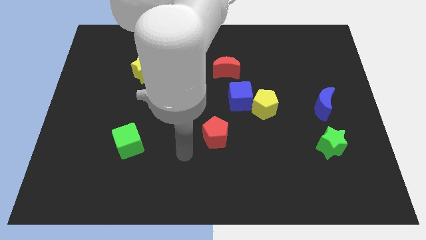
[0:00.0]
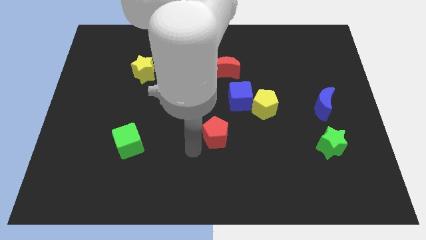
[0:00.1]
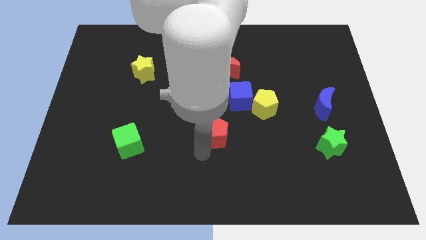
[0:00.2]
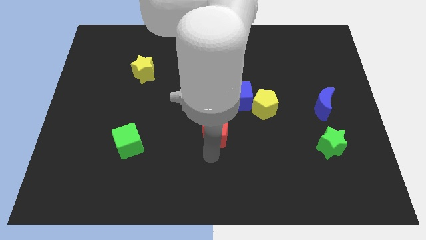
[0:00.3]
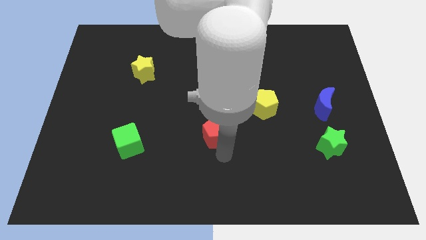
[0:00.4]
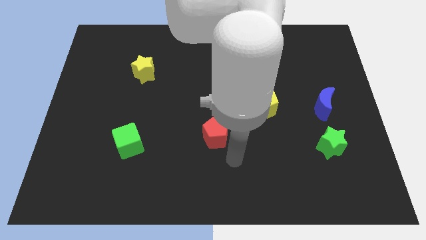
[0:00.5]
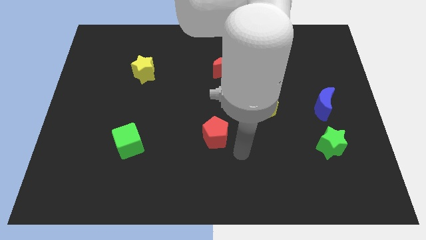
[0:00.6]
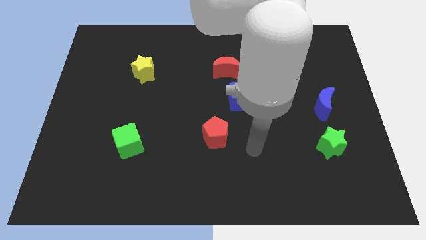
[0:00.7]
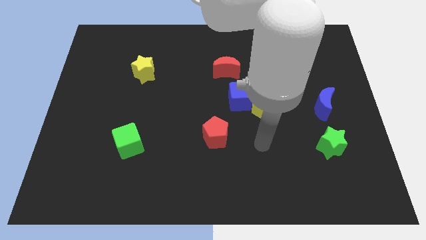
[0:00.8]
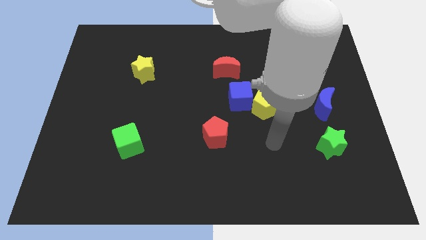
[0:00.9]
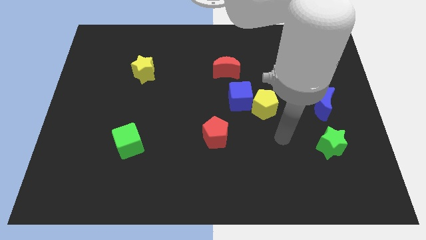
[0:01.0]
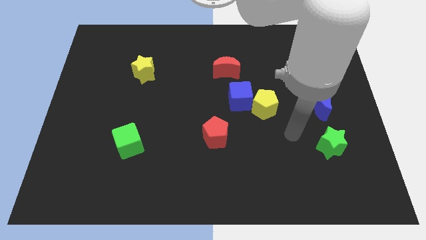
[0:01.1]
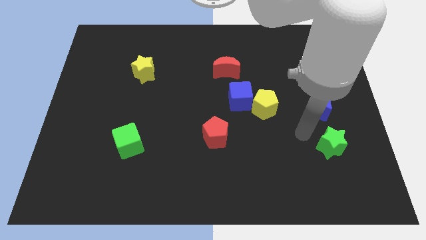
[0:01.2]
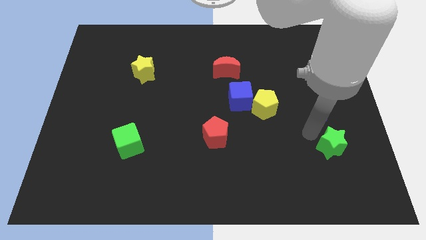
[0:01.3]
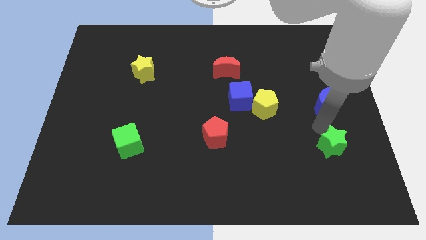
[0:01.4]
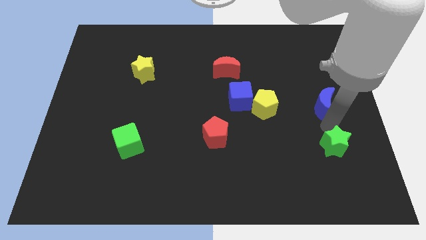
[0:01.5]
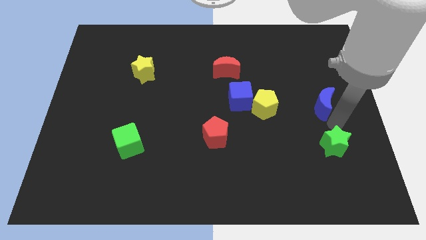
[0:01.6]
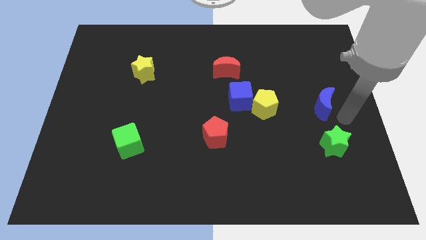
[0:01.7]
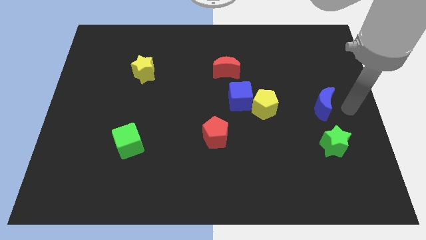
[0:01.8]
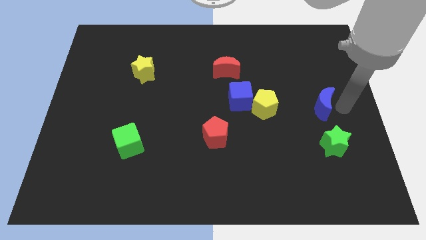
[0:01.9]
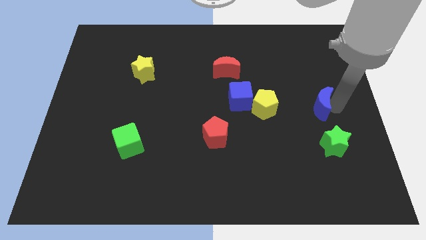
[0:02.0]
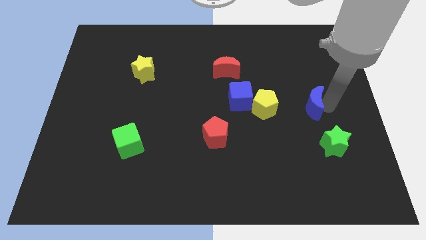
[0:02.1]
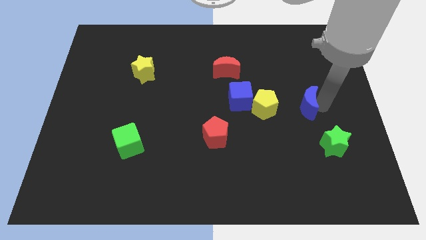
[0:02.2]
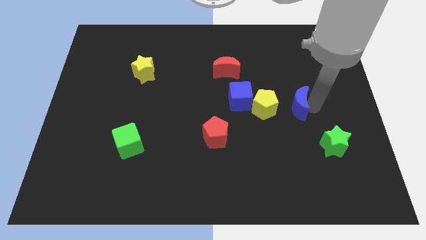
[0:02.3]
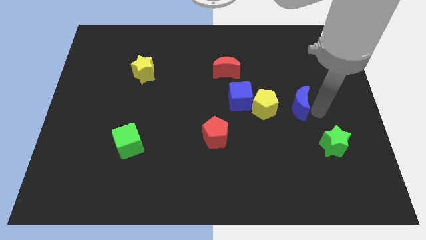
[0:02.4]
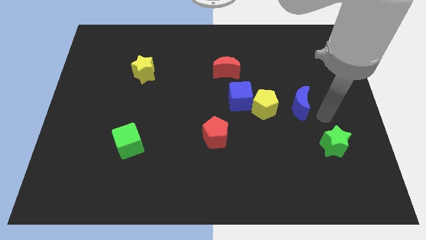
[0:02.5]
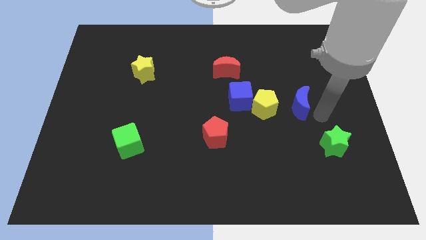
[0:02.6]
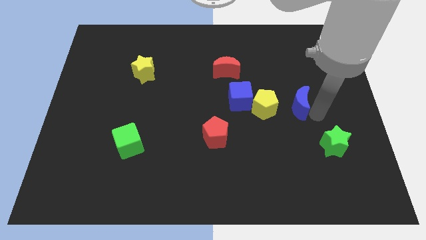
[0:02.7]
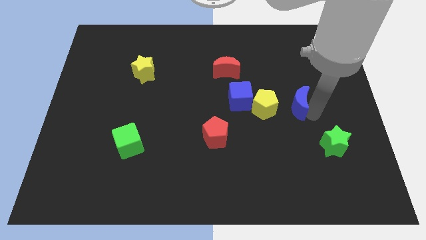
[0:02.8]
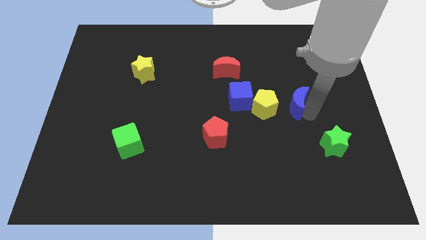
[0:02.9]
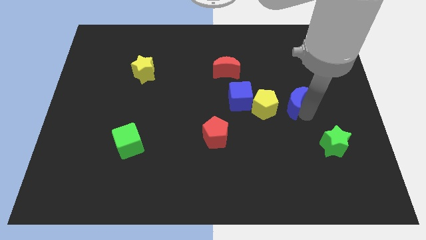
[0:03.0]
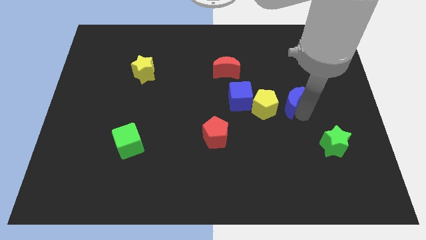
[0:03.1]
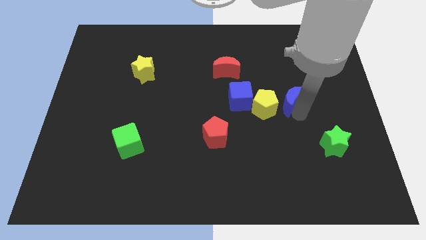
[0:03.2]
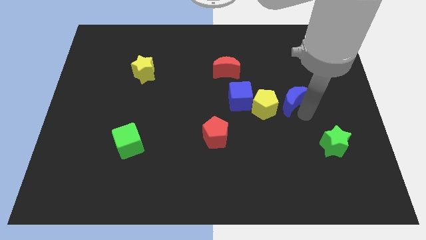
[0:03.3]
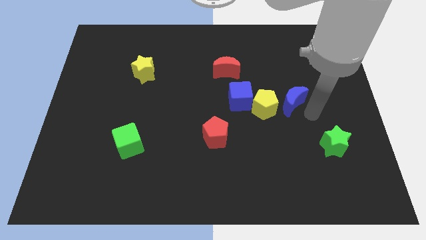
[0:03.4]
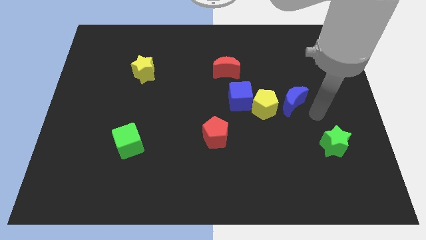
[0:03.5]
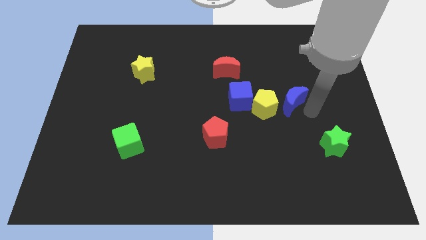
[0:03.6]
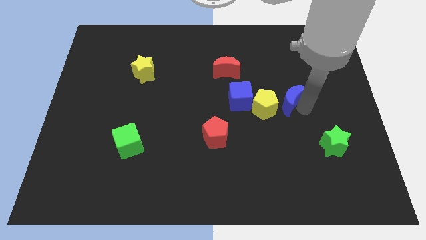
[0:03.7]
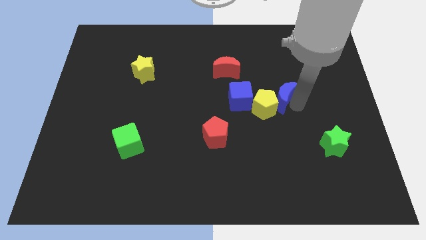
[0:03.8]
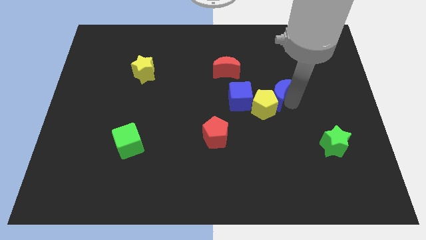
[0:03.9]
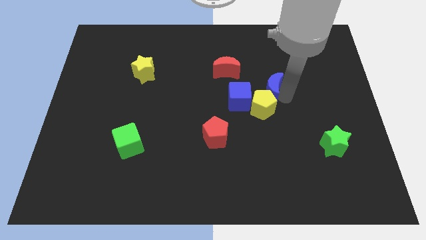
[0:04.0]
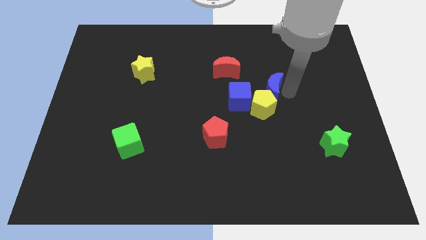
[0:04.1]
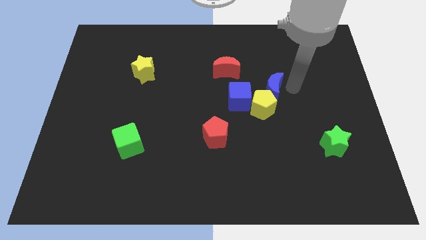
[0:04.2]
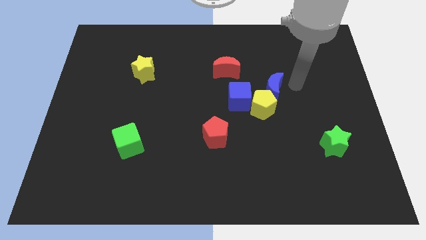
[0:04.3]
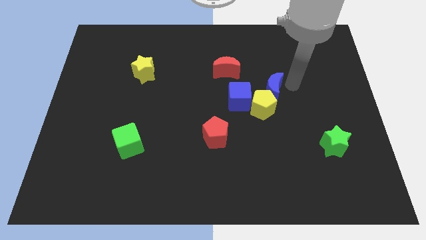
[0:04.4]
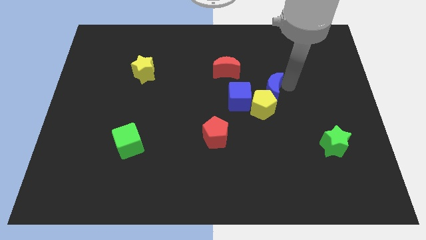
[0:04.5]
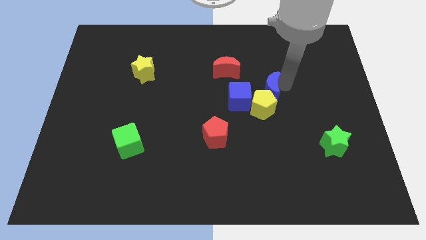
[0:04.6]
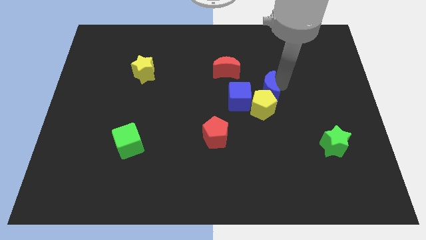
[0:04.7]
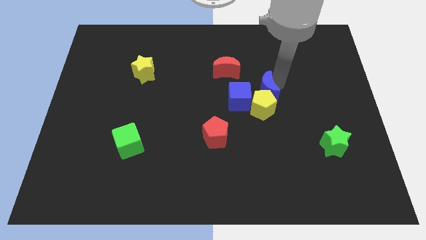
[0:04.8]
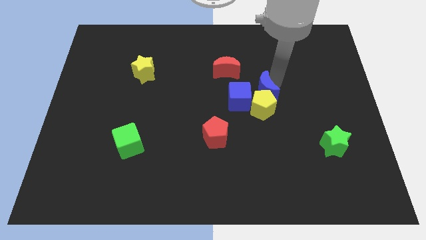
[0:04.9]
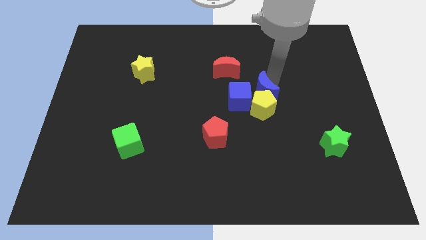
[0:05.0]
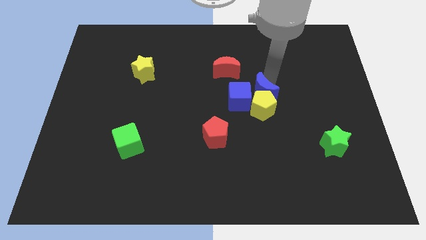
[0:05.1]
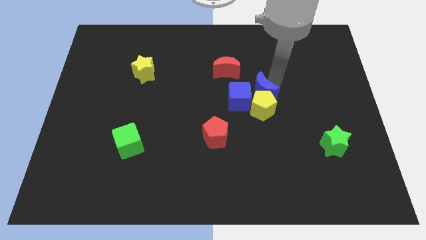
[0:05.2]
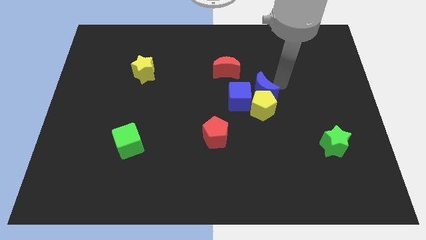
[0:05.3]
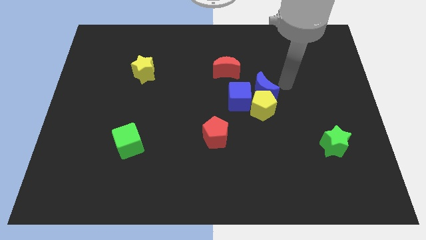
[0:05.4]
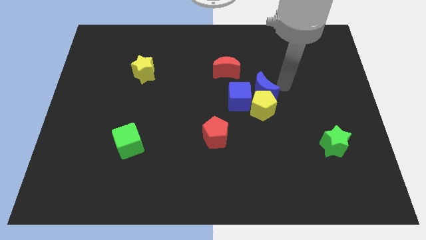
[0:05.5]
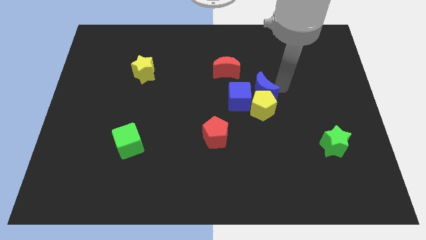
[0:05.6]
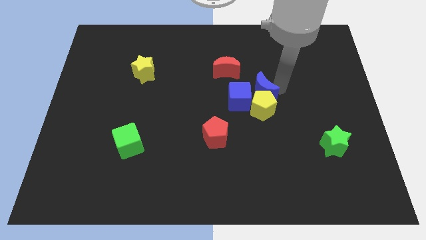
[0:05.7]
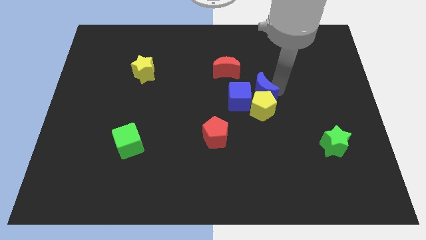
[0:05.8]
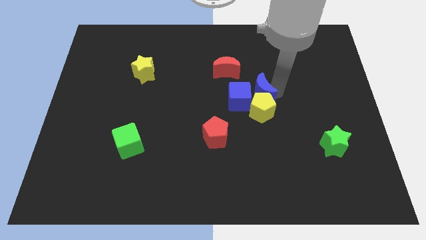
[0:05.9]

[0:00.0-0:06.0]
move the blue moon to the blue cube
